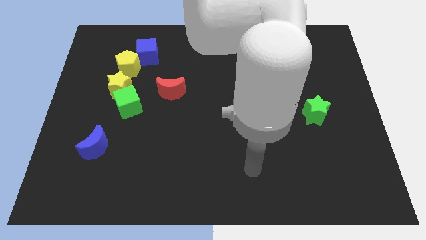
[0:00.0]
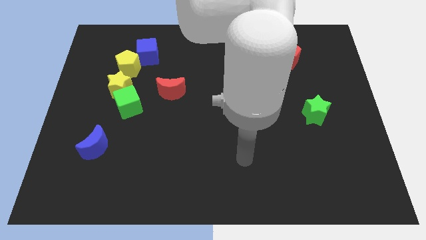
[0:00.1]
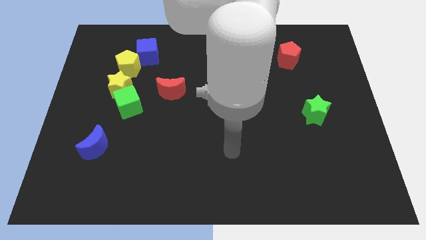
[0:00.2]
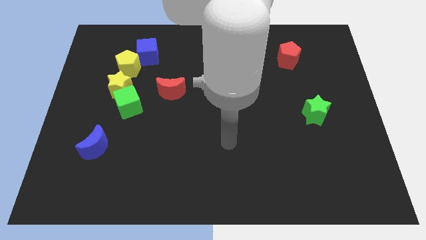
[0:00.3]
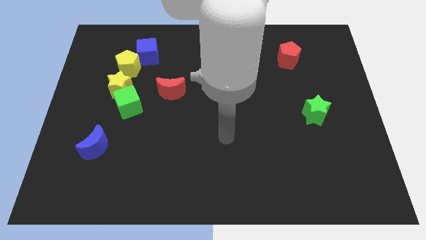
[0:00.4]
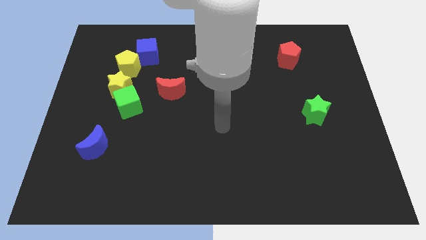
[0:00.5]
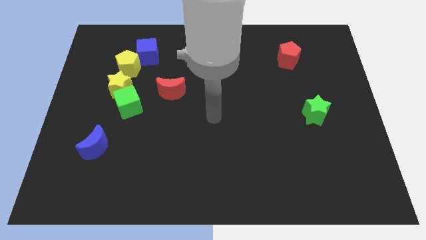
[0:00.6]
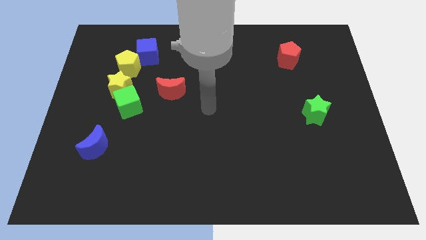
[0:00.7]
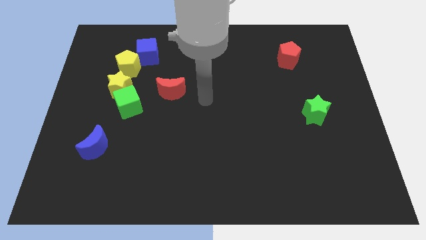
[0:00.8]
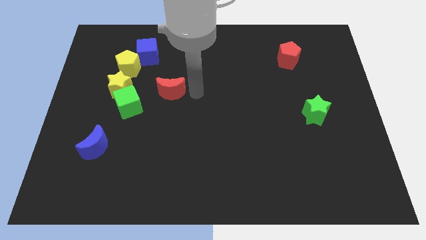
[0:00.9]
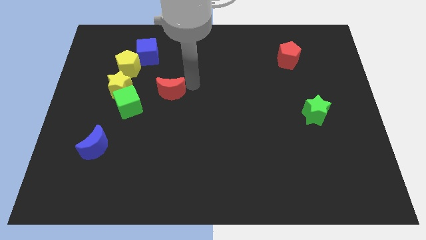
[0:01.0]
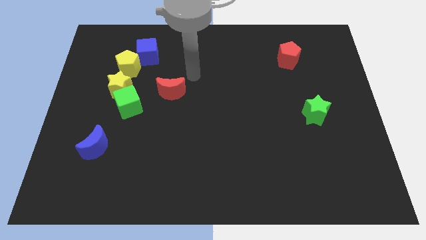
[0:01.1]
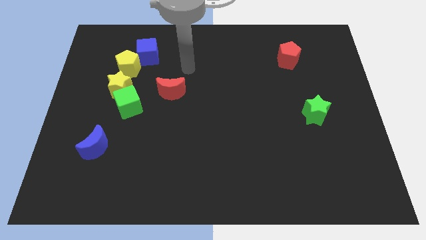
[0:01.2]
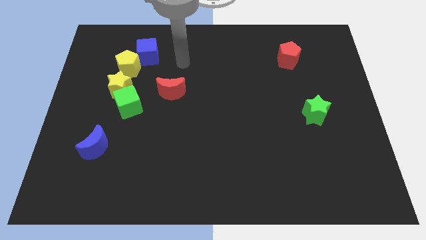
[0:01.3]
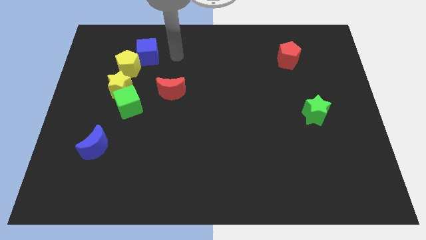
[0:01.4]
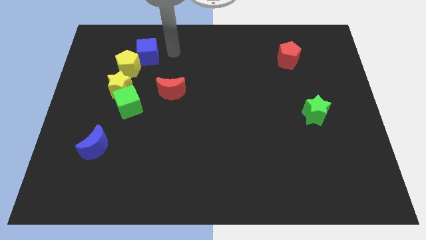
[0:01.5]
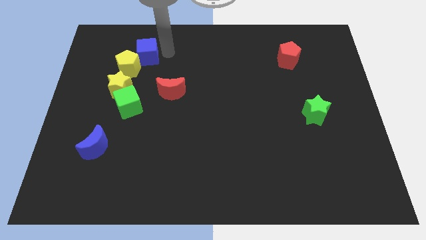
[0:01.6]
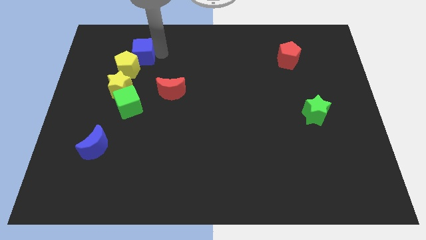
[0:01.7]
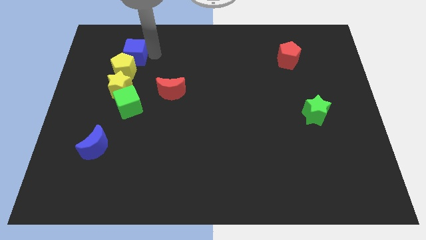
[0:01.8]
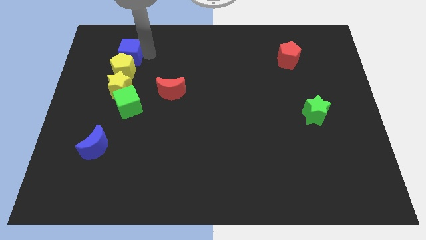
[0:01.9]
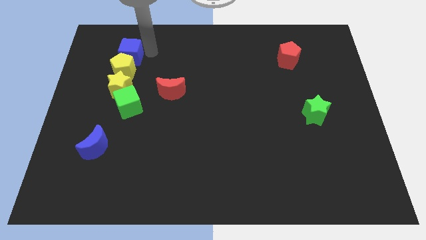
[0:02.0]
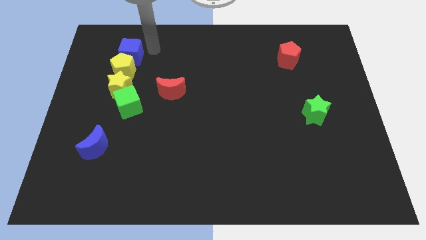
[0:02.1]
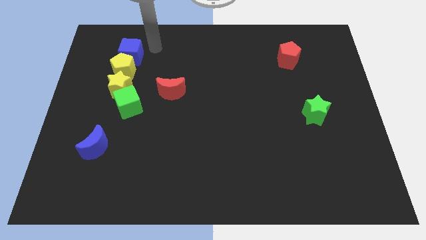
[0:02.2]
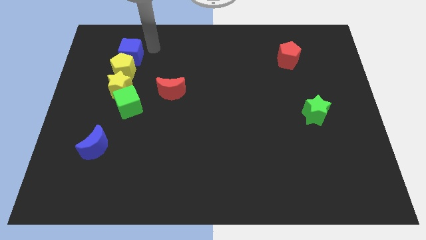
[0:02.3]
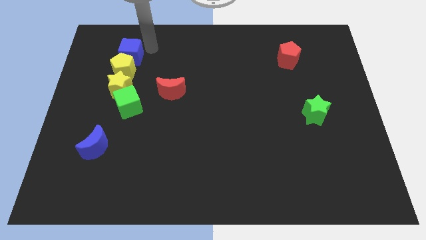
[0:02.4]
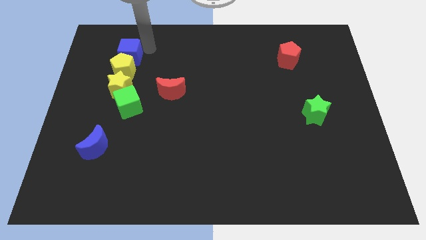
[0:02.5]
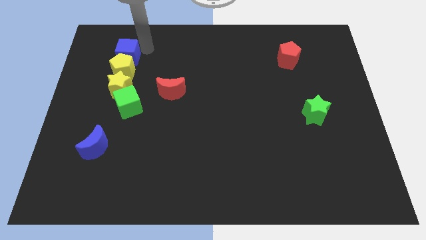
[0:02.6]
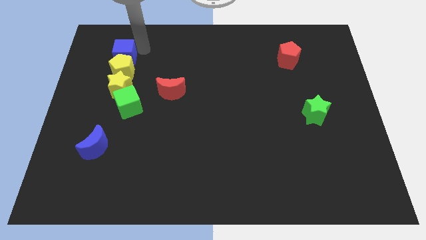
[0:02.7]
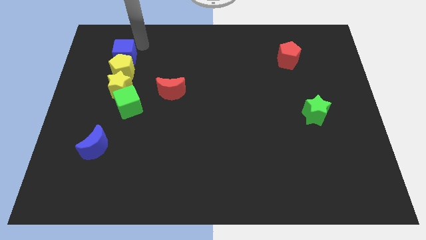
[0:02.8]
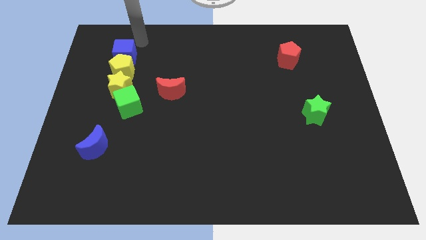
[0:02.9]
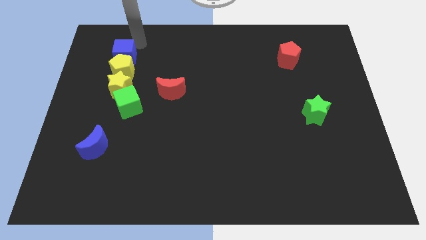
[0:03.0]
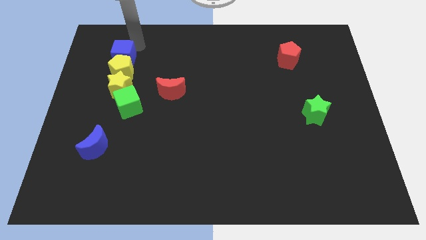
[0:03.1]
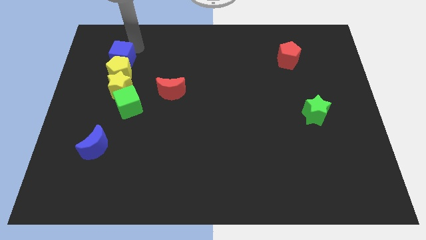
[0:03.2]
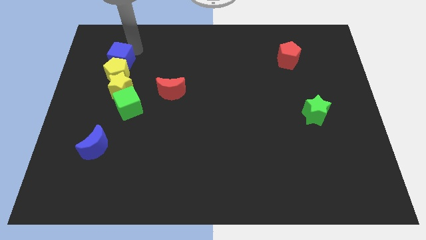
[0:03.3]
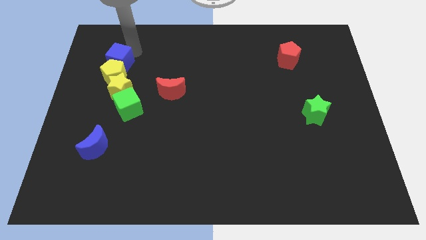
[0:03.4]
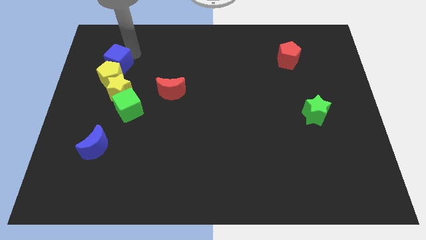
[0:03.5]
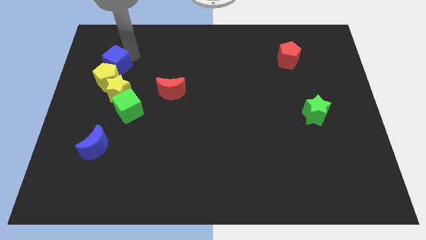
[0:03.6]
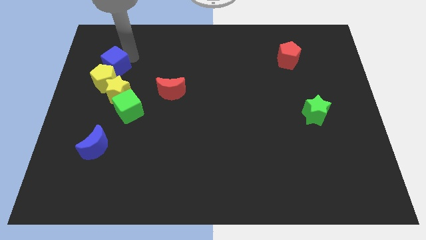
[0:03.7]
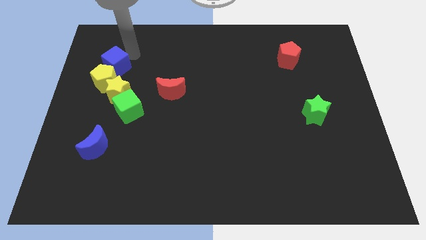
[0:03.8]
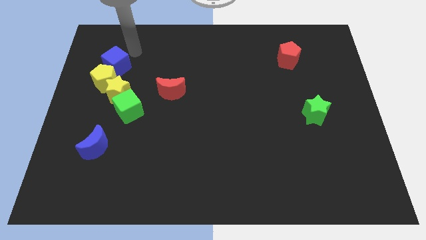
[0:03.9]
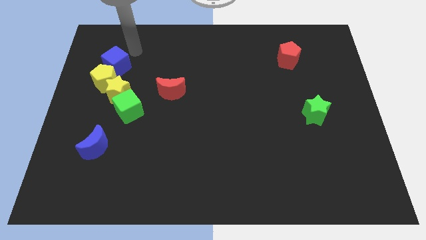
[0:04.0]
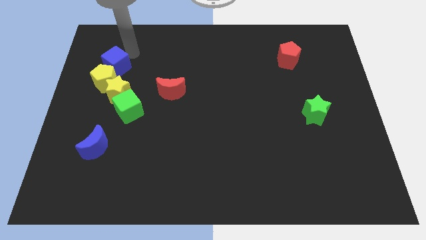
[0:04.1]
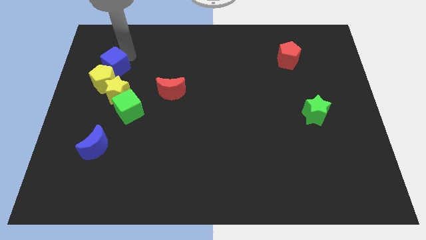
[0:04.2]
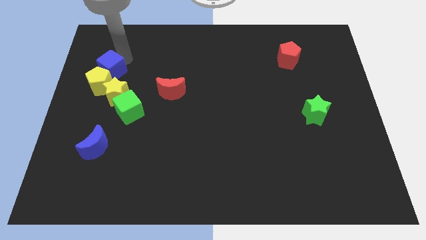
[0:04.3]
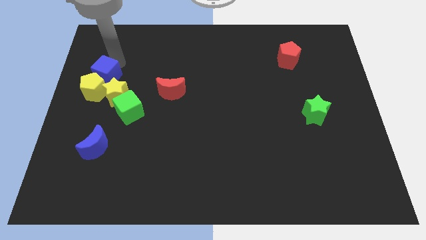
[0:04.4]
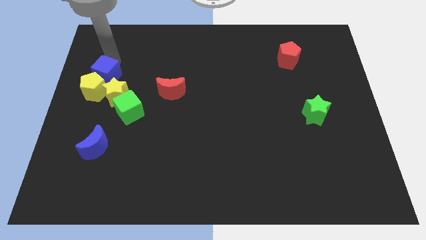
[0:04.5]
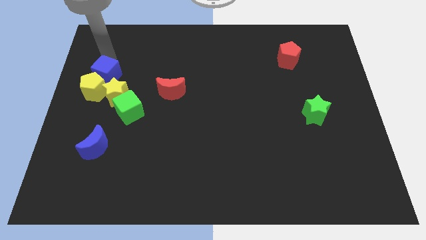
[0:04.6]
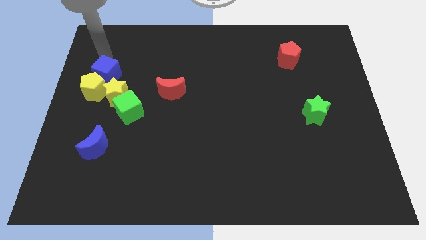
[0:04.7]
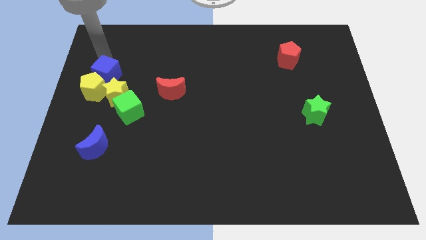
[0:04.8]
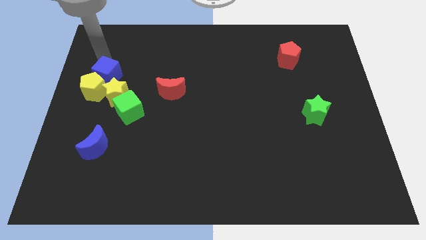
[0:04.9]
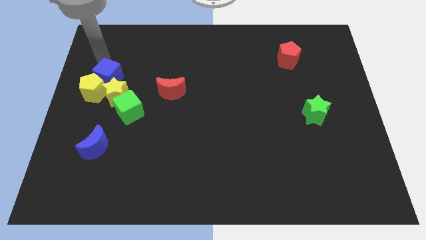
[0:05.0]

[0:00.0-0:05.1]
move the blue cube diagonally up and to the left of the green cube

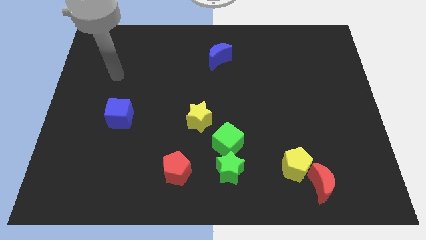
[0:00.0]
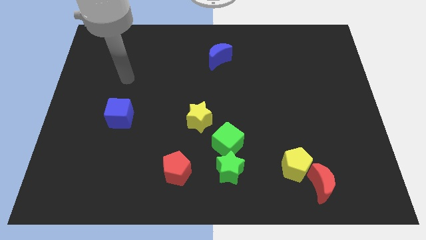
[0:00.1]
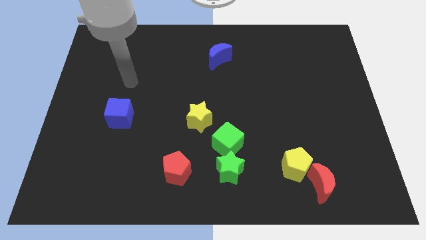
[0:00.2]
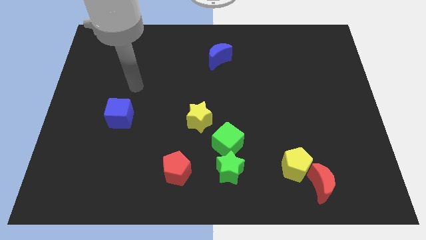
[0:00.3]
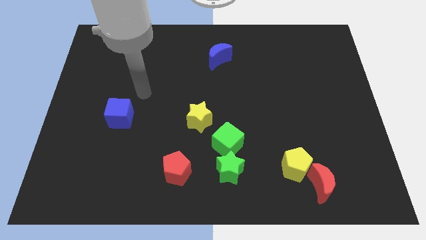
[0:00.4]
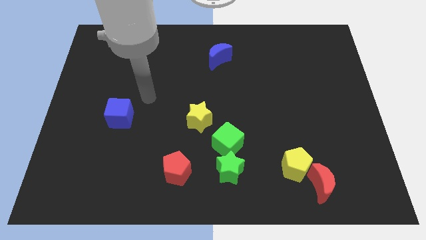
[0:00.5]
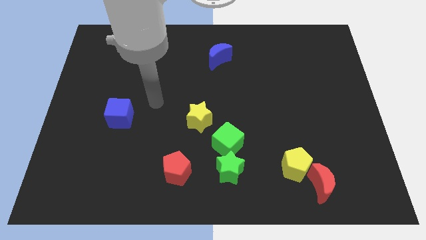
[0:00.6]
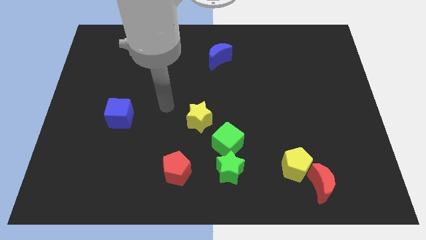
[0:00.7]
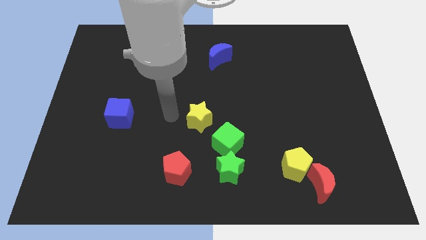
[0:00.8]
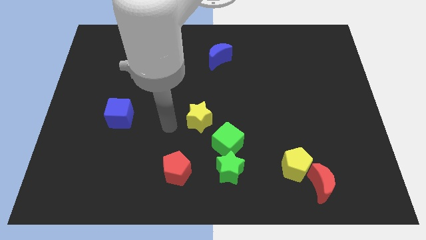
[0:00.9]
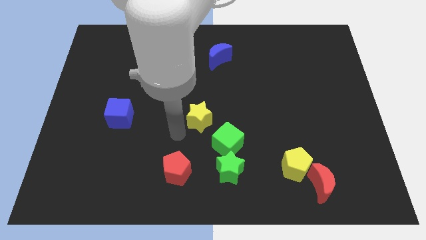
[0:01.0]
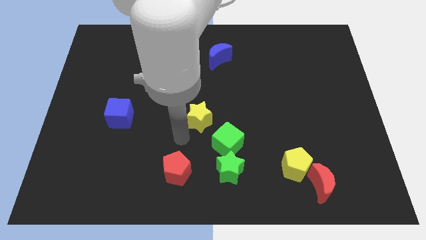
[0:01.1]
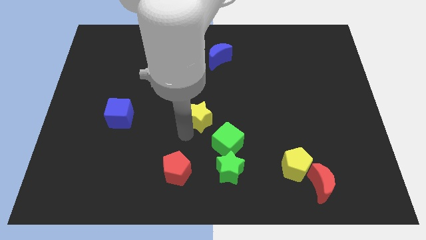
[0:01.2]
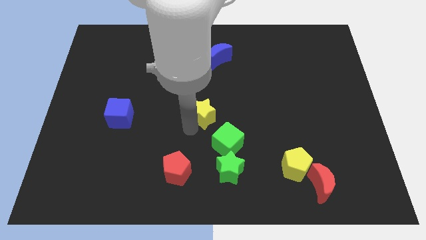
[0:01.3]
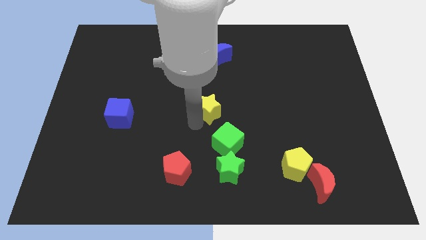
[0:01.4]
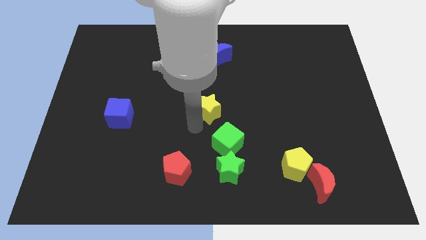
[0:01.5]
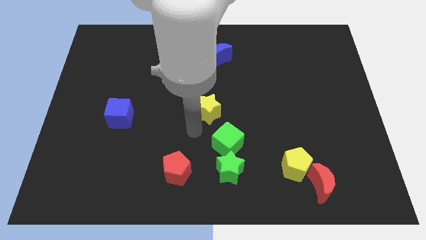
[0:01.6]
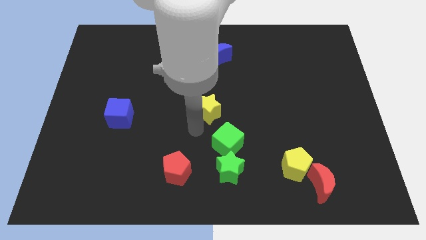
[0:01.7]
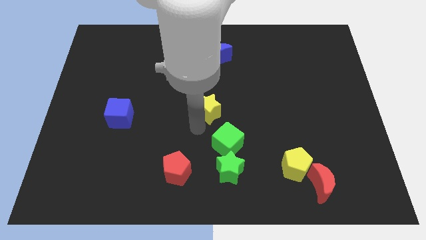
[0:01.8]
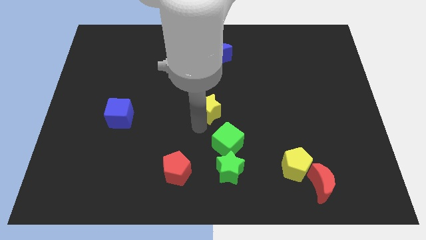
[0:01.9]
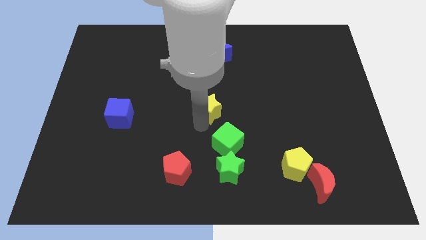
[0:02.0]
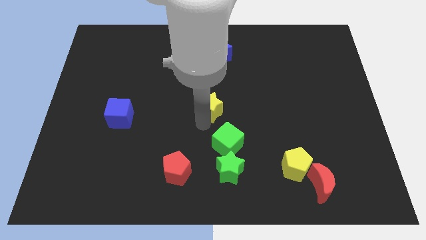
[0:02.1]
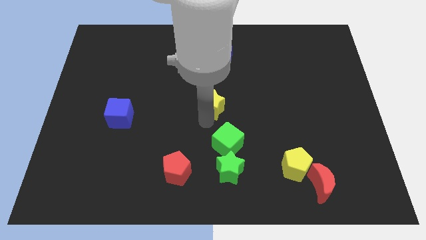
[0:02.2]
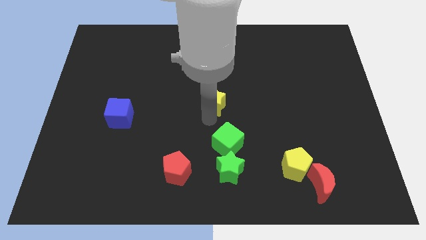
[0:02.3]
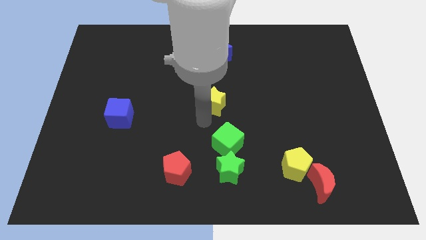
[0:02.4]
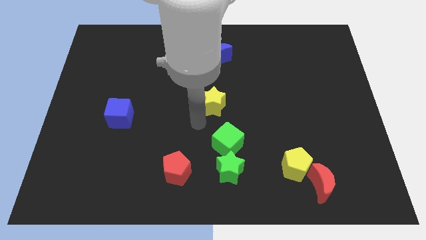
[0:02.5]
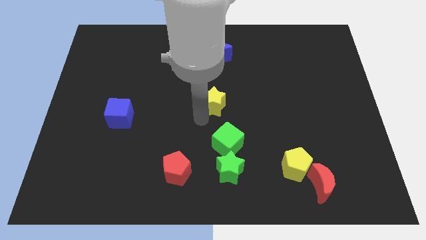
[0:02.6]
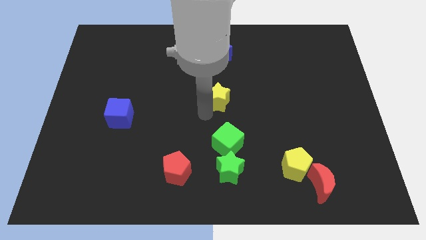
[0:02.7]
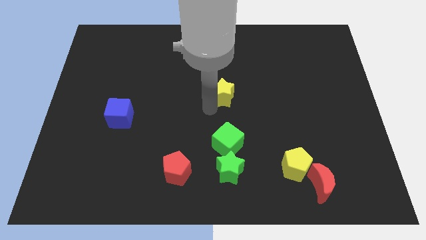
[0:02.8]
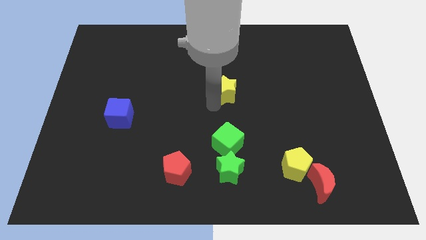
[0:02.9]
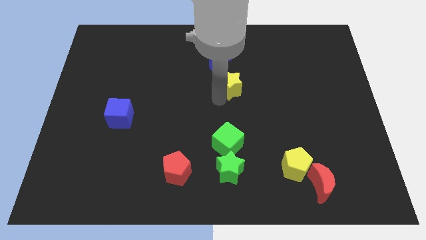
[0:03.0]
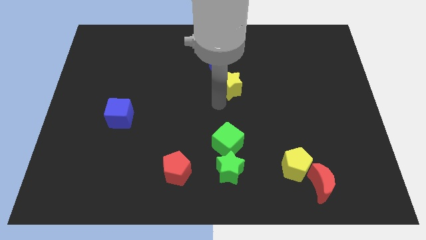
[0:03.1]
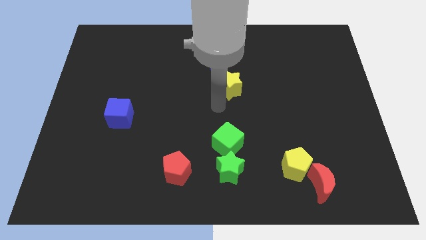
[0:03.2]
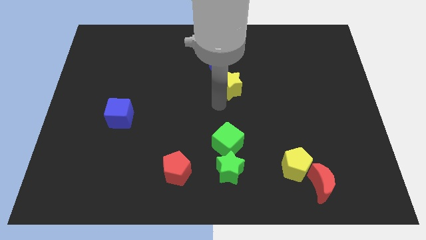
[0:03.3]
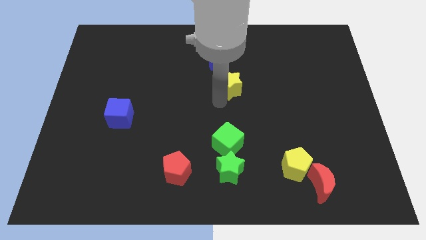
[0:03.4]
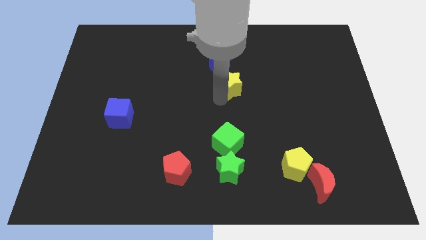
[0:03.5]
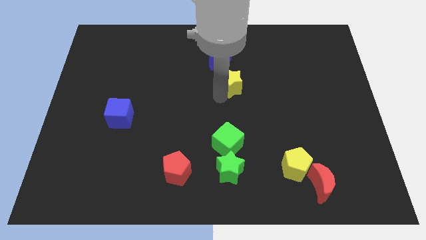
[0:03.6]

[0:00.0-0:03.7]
move the yellow star to the bottom right of the blue moon
